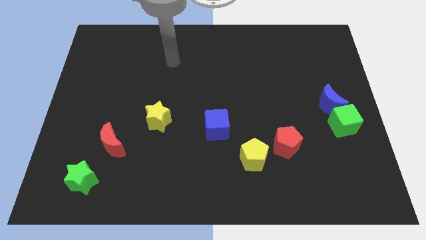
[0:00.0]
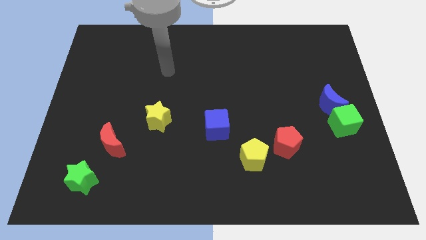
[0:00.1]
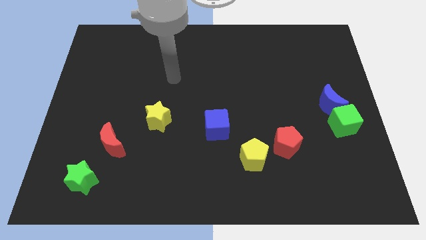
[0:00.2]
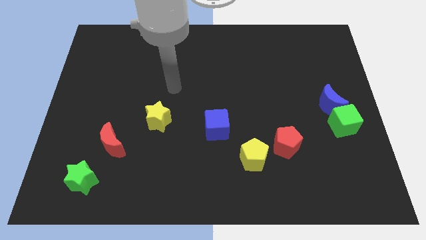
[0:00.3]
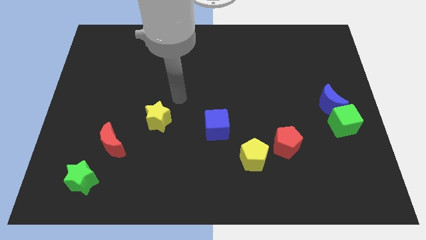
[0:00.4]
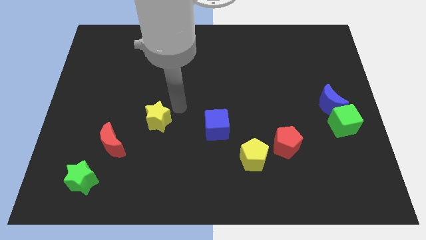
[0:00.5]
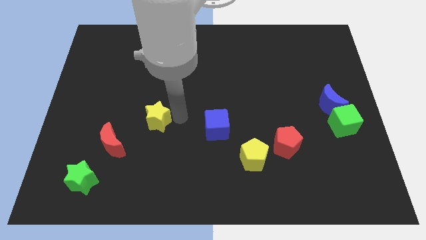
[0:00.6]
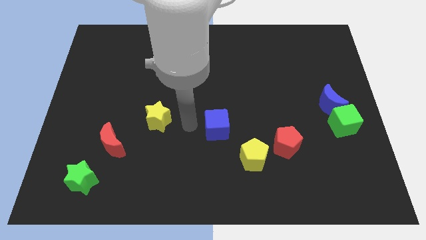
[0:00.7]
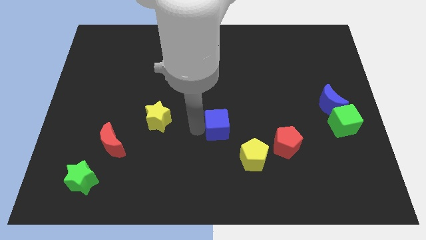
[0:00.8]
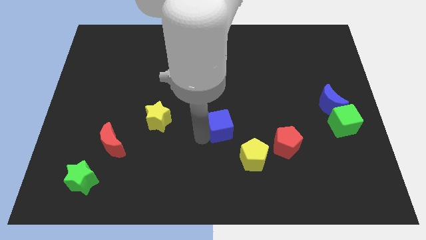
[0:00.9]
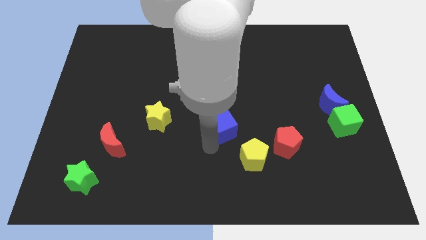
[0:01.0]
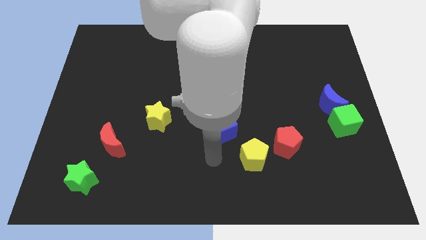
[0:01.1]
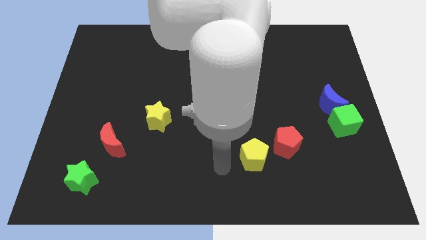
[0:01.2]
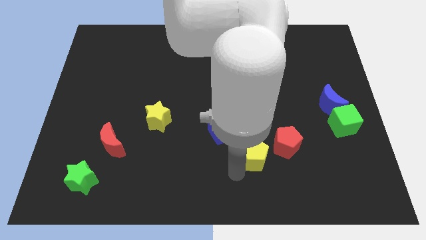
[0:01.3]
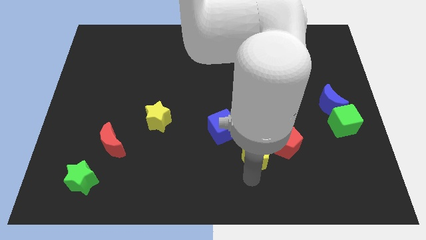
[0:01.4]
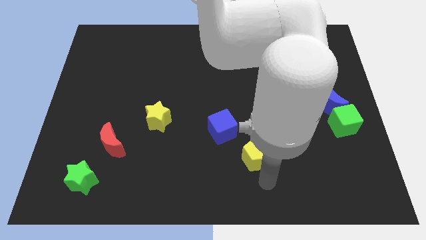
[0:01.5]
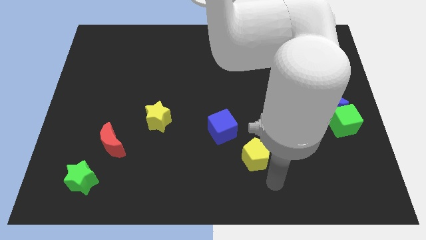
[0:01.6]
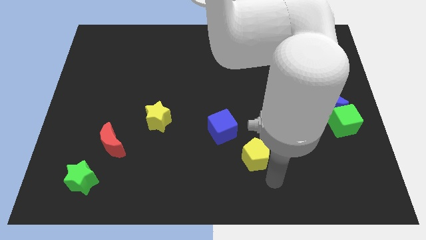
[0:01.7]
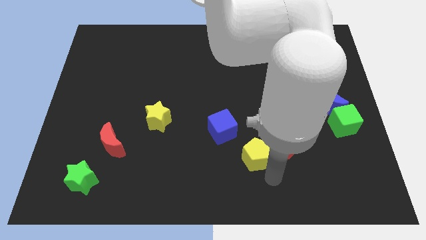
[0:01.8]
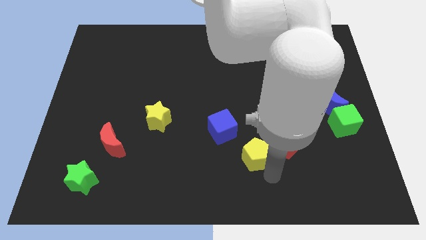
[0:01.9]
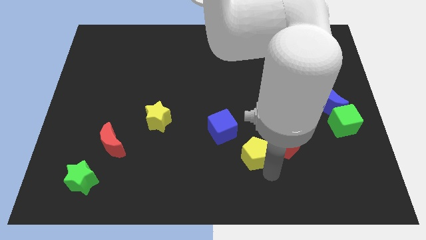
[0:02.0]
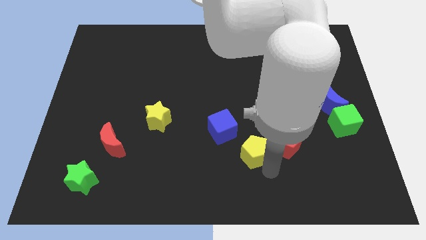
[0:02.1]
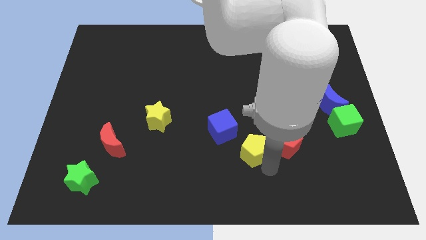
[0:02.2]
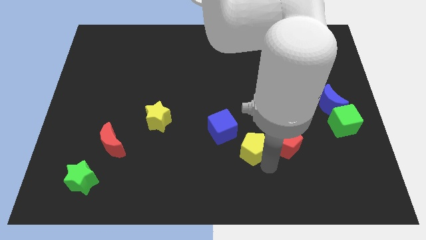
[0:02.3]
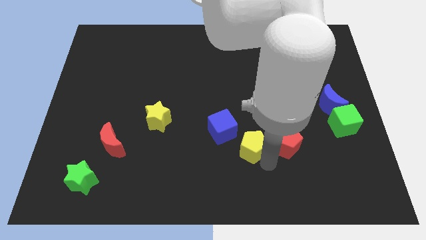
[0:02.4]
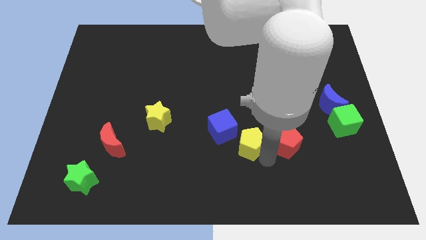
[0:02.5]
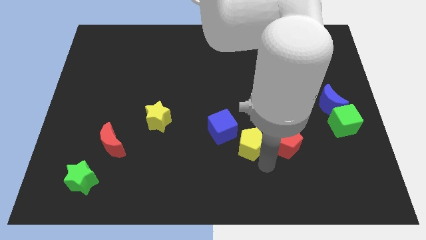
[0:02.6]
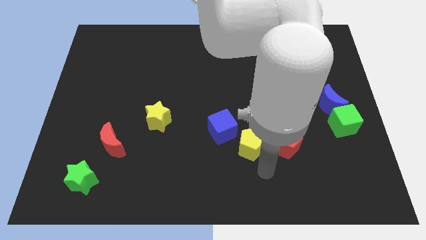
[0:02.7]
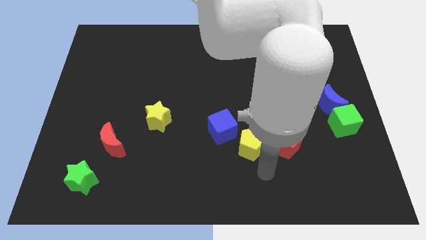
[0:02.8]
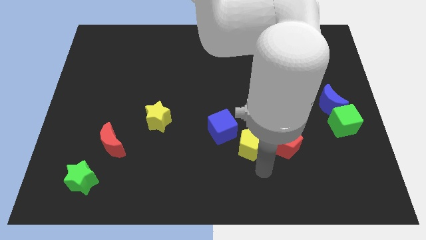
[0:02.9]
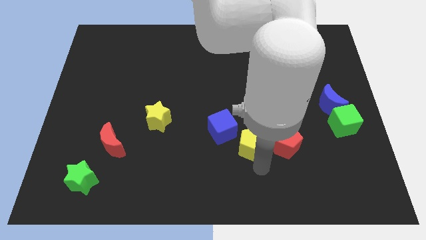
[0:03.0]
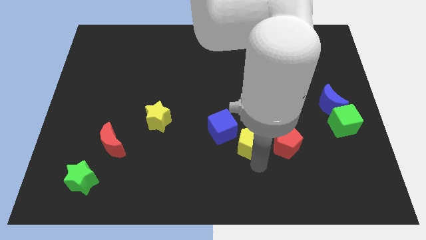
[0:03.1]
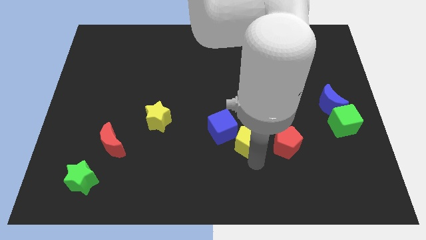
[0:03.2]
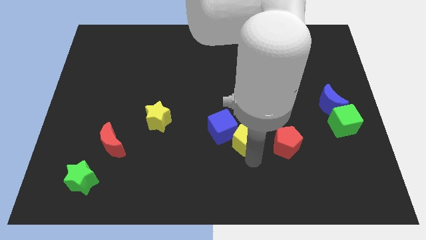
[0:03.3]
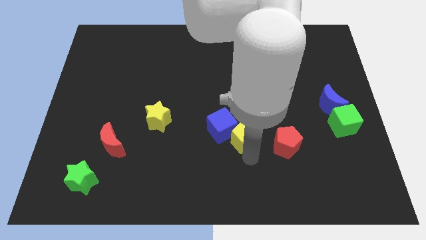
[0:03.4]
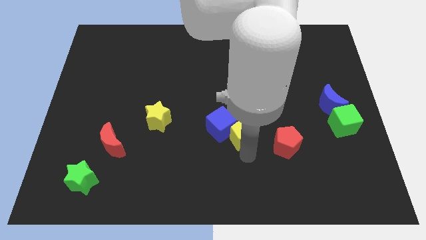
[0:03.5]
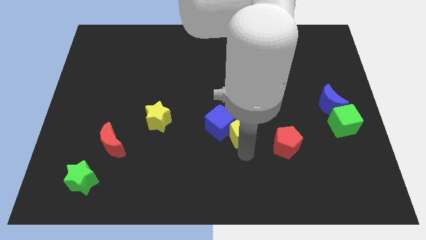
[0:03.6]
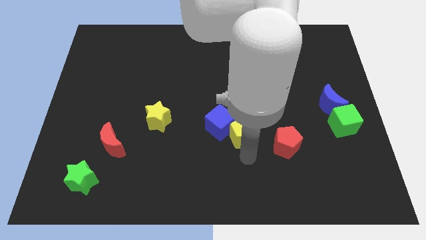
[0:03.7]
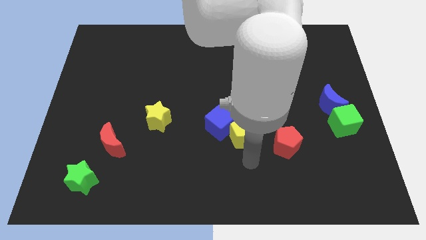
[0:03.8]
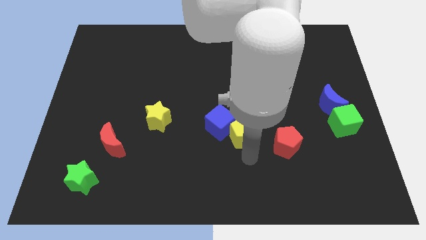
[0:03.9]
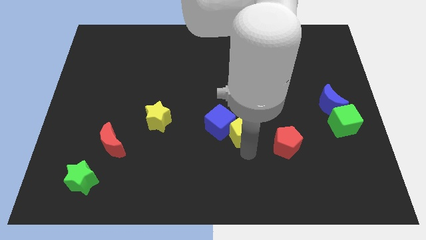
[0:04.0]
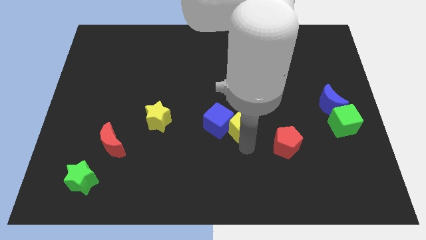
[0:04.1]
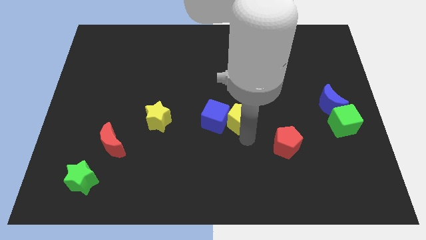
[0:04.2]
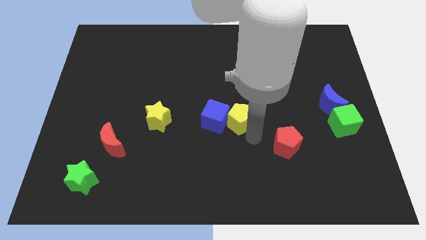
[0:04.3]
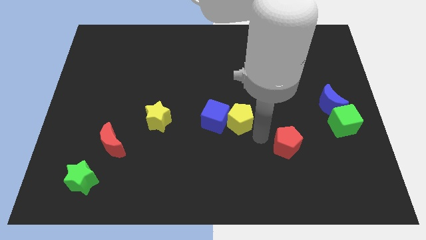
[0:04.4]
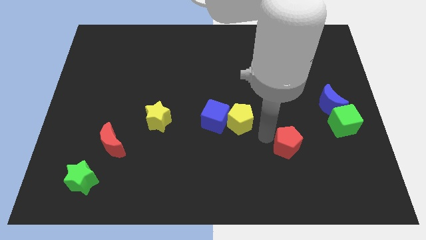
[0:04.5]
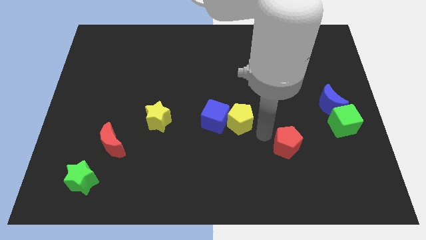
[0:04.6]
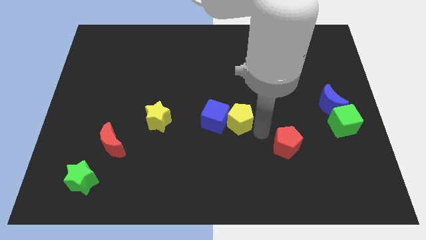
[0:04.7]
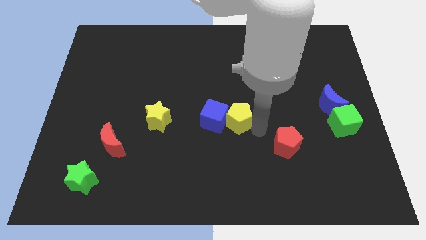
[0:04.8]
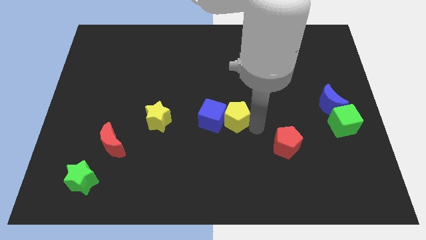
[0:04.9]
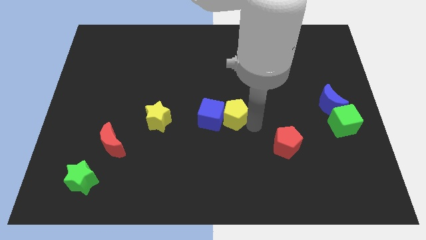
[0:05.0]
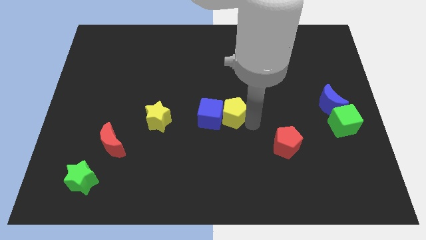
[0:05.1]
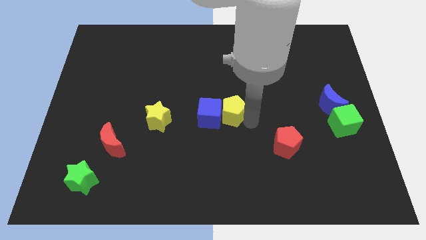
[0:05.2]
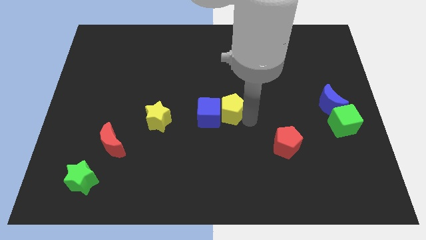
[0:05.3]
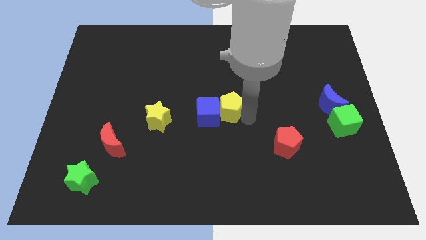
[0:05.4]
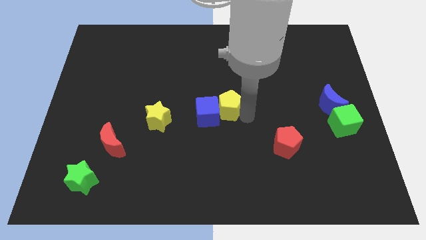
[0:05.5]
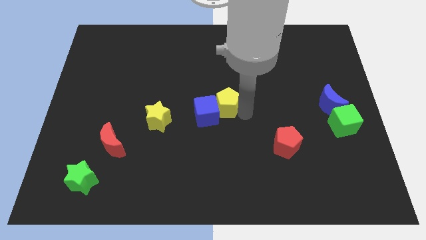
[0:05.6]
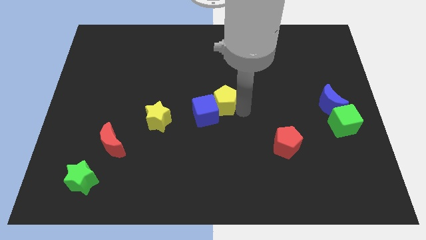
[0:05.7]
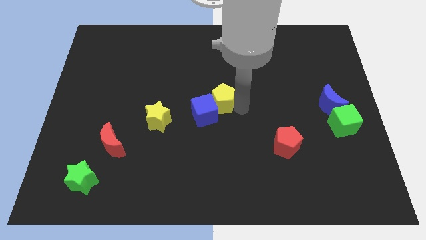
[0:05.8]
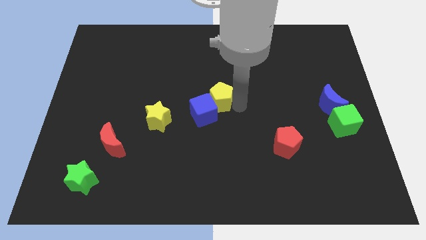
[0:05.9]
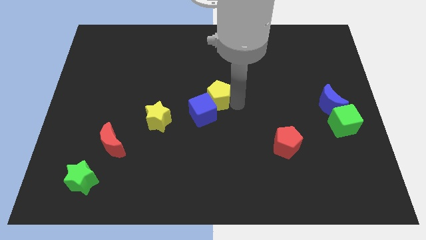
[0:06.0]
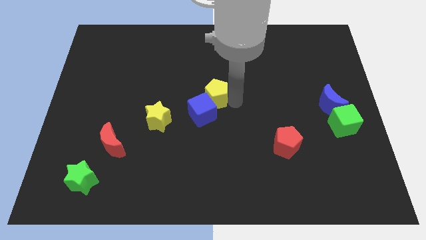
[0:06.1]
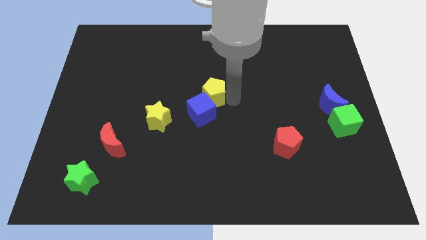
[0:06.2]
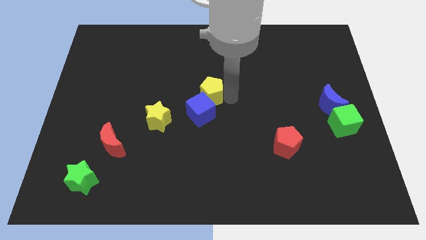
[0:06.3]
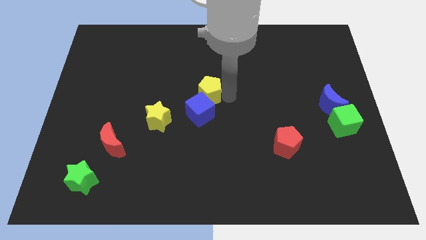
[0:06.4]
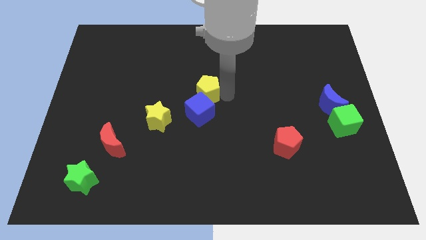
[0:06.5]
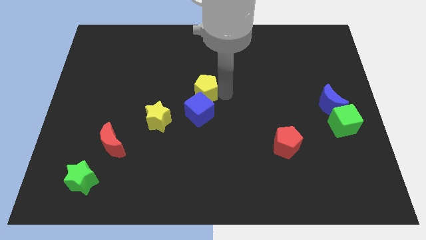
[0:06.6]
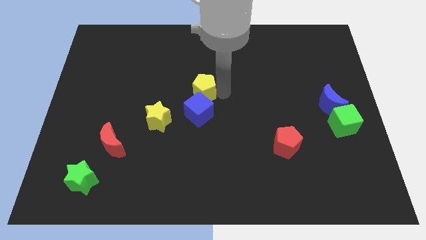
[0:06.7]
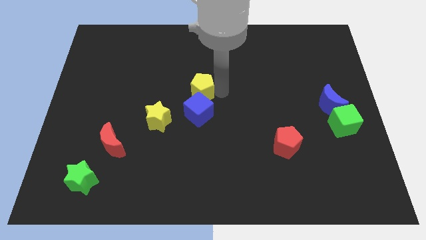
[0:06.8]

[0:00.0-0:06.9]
push the yellow pentagon upwards and to the left

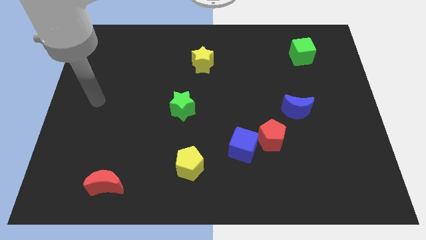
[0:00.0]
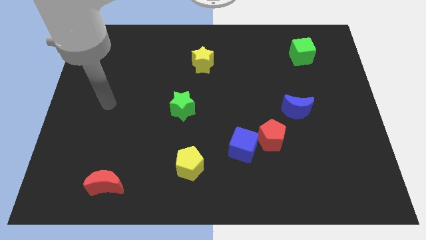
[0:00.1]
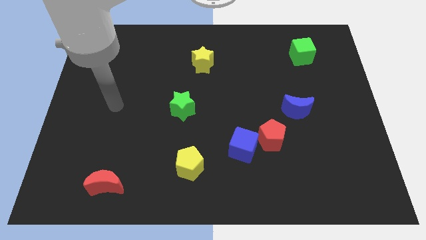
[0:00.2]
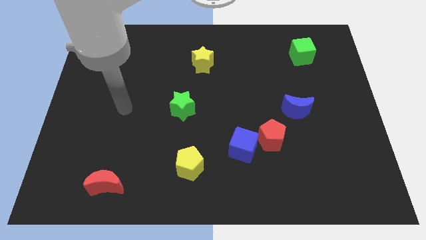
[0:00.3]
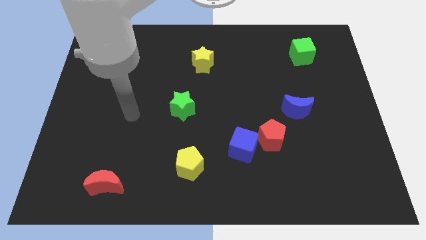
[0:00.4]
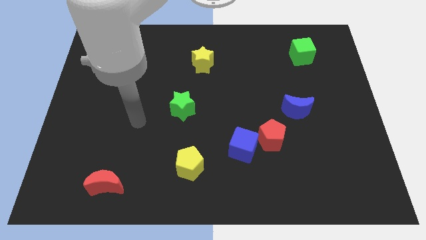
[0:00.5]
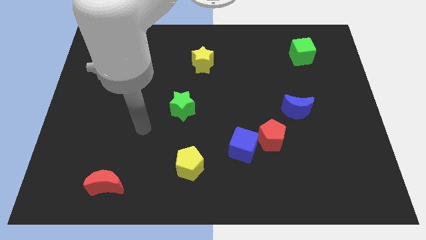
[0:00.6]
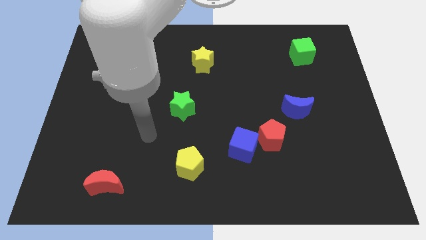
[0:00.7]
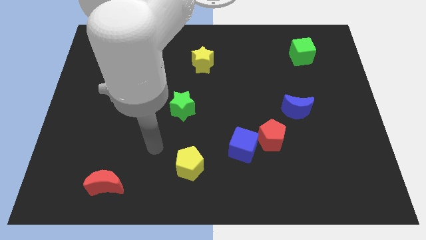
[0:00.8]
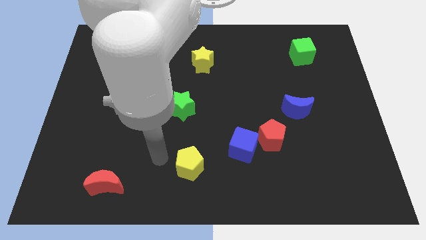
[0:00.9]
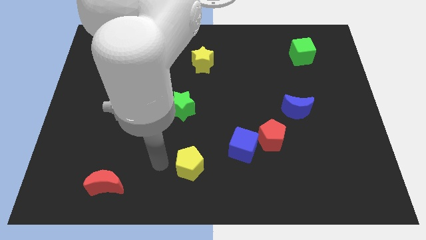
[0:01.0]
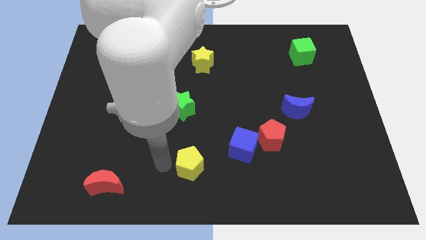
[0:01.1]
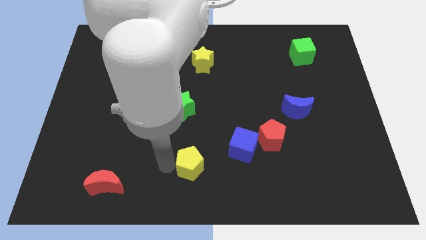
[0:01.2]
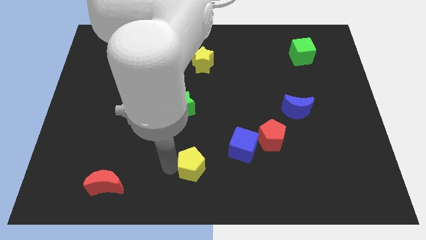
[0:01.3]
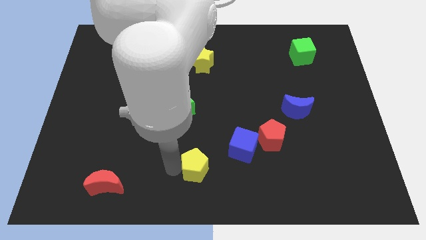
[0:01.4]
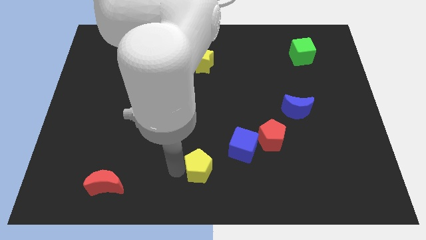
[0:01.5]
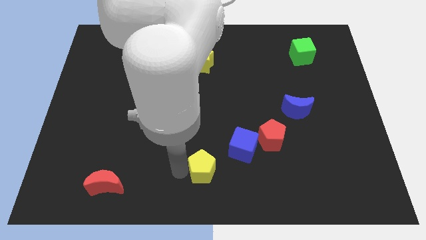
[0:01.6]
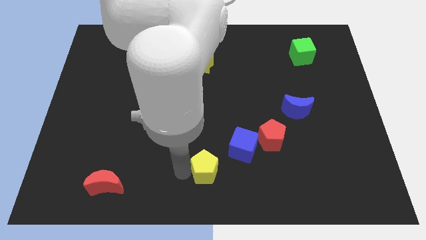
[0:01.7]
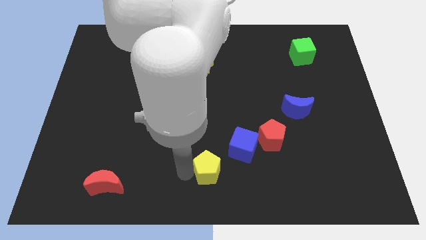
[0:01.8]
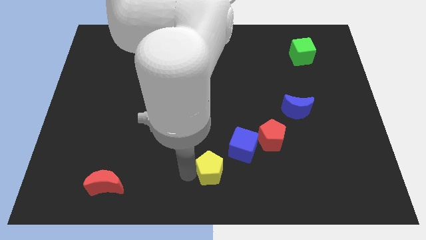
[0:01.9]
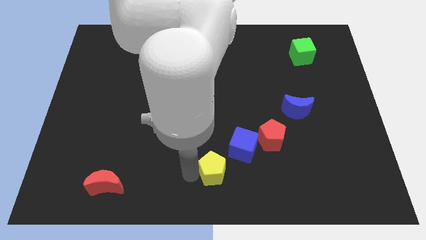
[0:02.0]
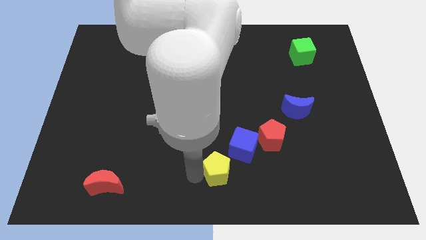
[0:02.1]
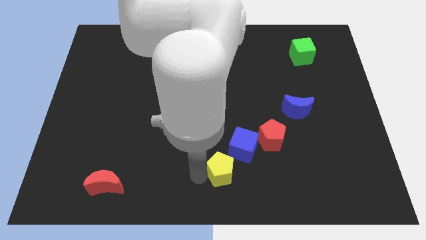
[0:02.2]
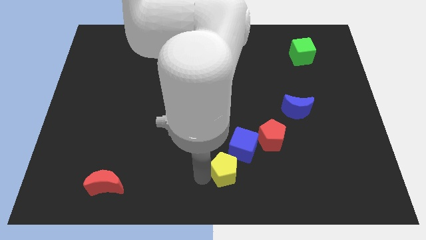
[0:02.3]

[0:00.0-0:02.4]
move the yellow pentagon right a bit
